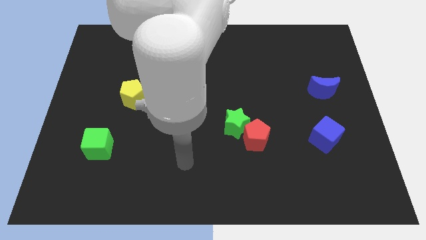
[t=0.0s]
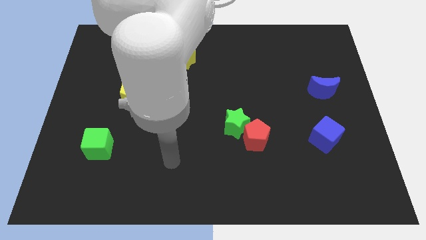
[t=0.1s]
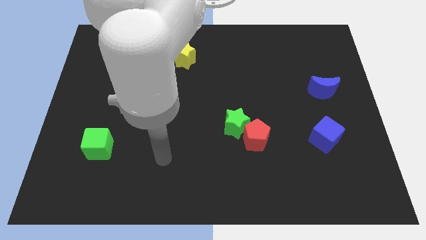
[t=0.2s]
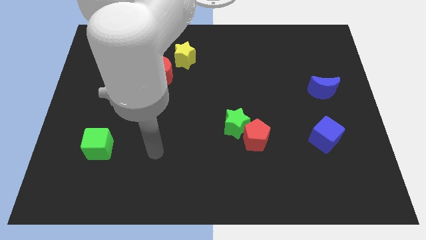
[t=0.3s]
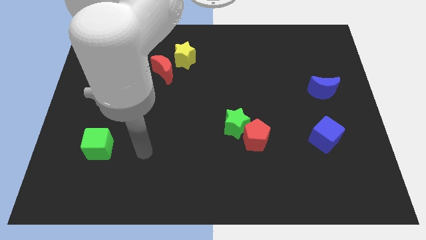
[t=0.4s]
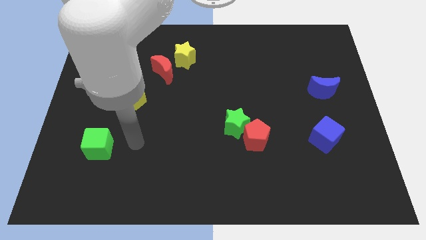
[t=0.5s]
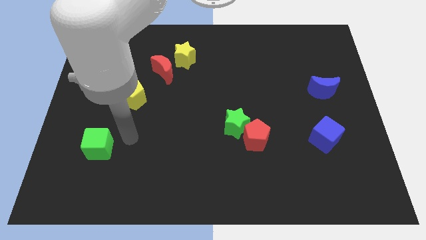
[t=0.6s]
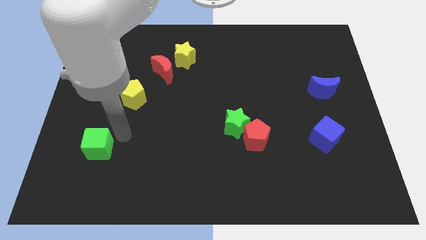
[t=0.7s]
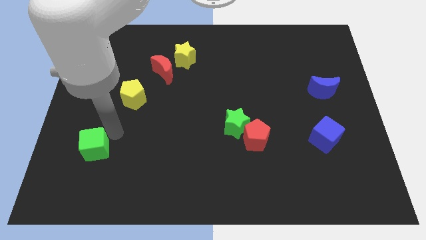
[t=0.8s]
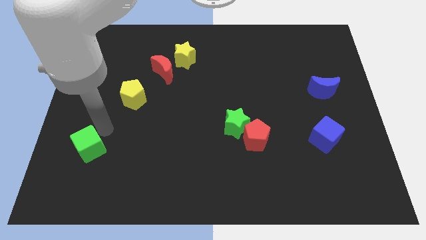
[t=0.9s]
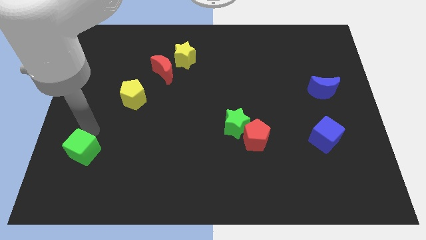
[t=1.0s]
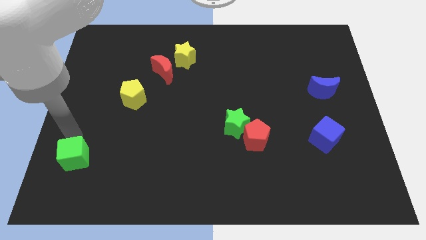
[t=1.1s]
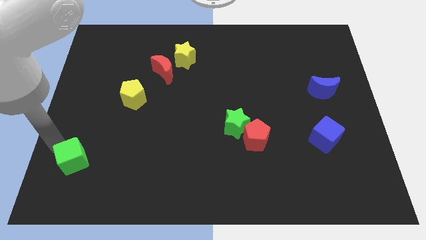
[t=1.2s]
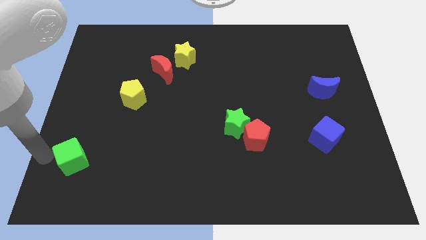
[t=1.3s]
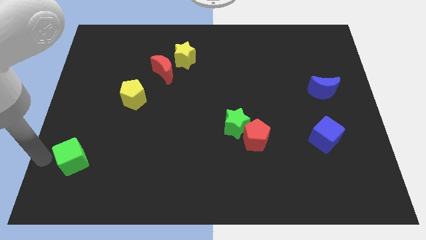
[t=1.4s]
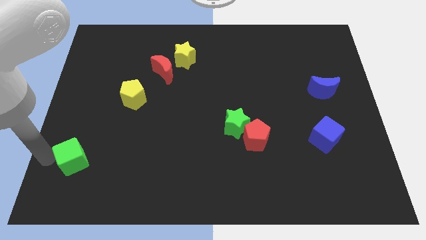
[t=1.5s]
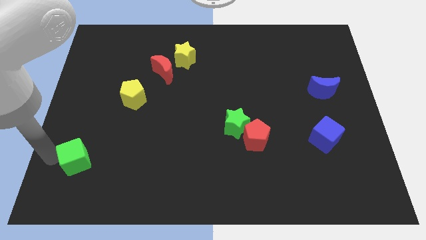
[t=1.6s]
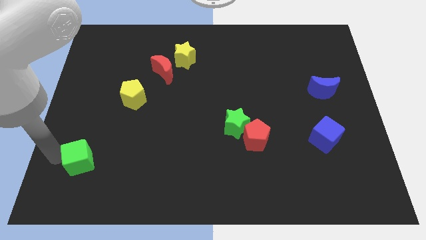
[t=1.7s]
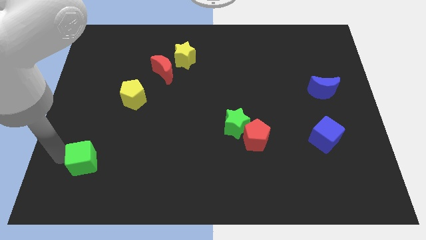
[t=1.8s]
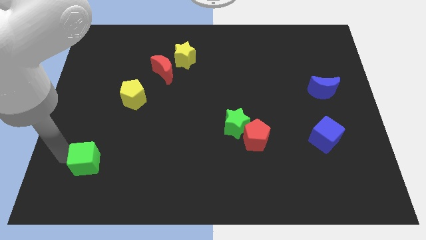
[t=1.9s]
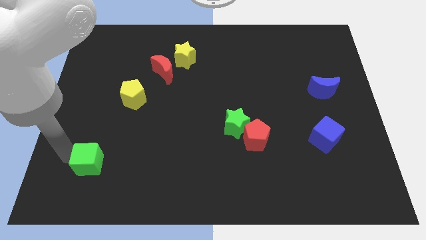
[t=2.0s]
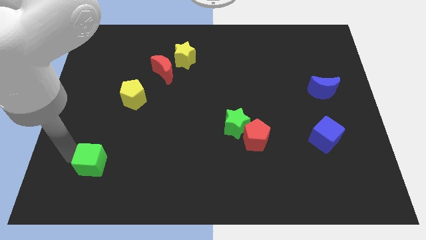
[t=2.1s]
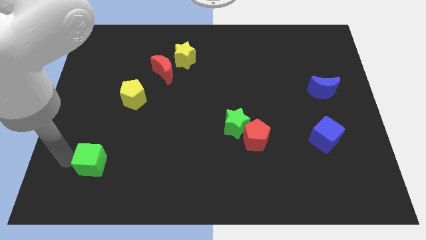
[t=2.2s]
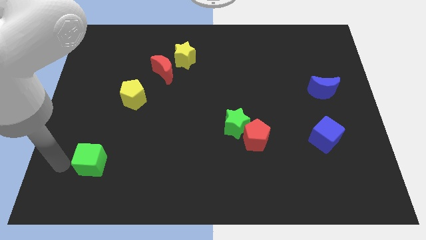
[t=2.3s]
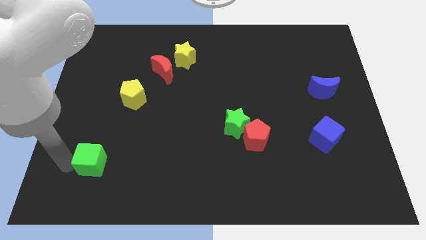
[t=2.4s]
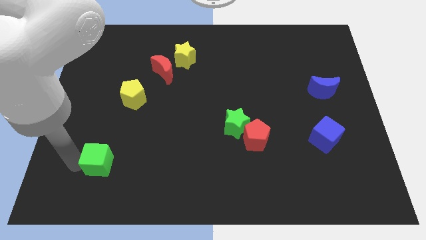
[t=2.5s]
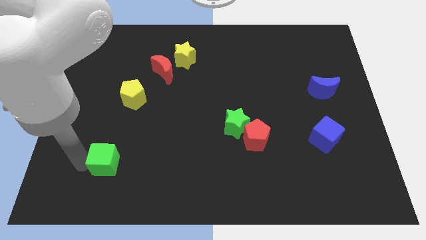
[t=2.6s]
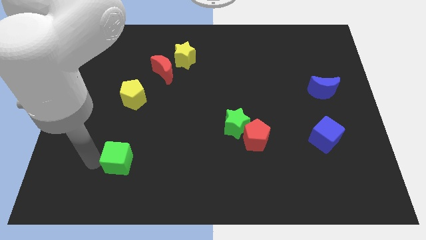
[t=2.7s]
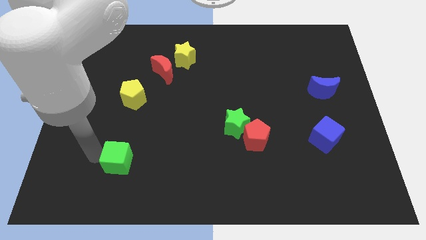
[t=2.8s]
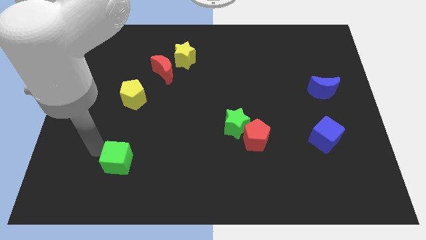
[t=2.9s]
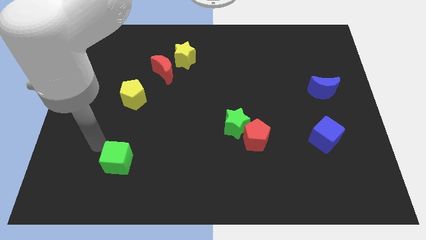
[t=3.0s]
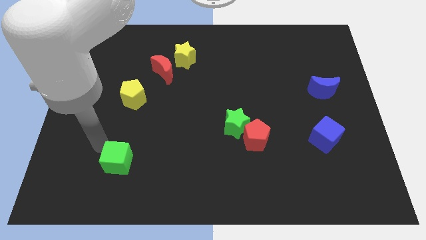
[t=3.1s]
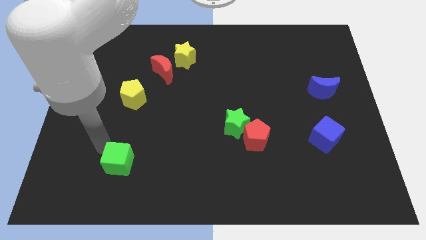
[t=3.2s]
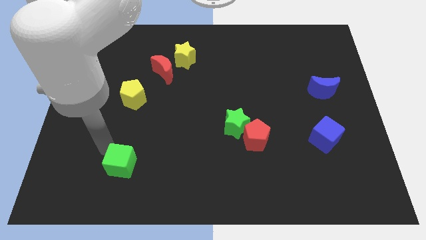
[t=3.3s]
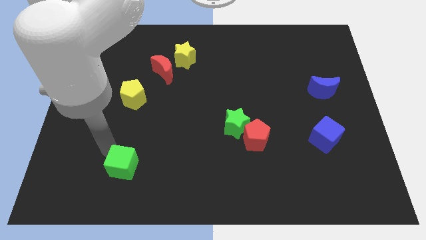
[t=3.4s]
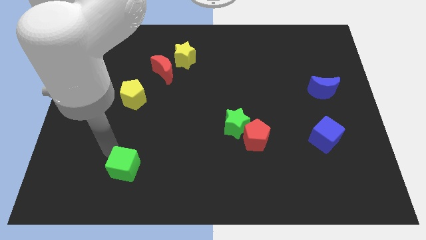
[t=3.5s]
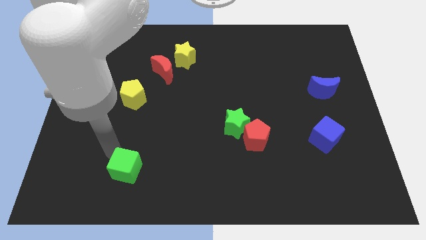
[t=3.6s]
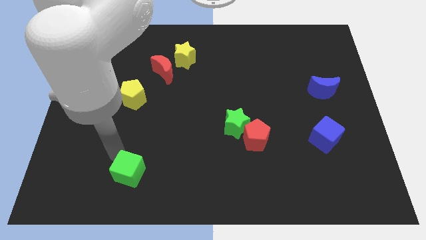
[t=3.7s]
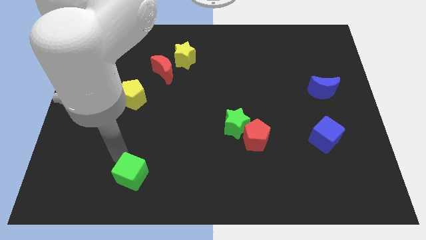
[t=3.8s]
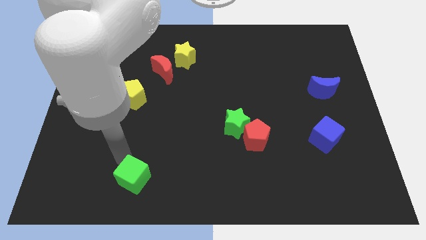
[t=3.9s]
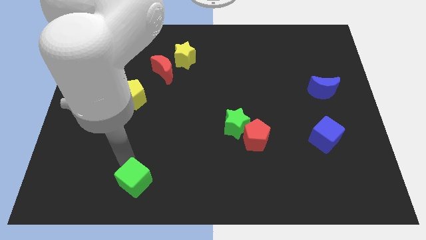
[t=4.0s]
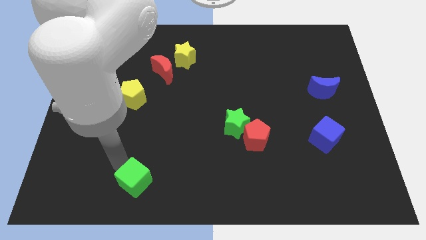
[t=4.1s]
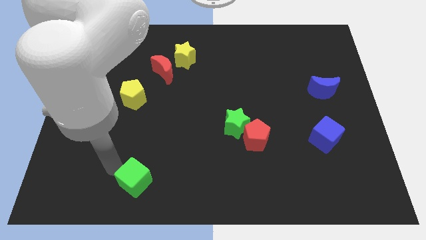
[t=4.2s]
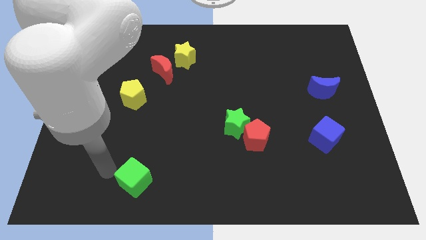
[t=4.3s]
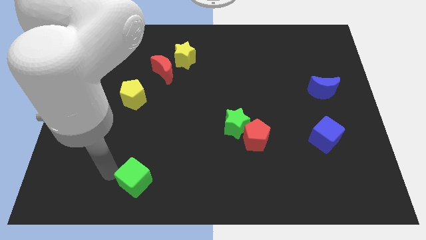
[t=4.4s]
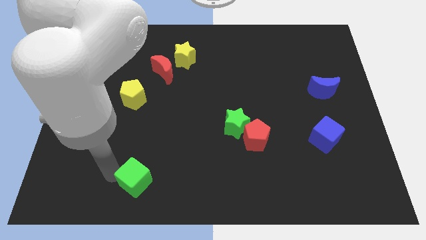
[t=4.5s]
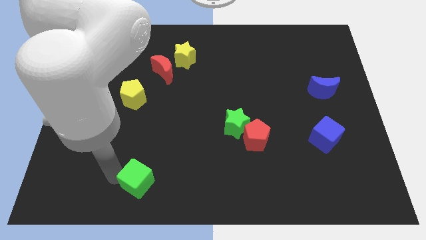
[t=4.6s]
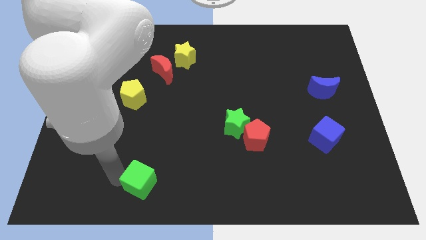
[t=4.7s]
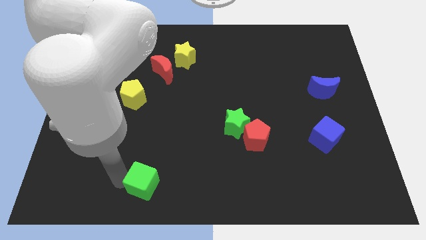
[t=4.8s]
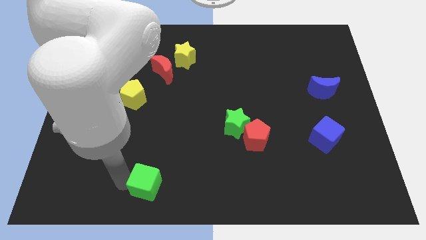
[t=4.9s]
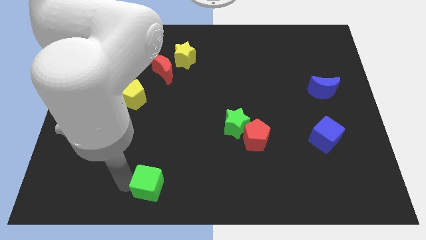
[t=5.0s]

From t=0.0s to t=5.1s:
push the green cube to the bottom

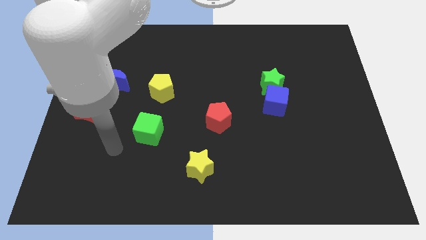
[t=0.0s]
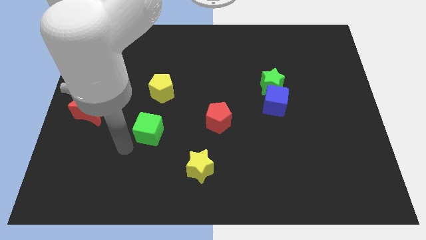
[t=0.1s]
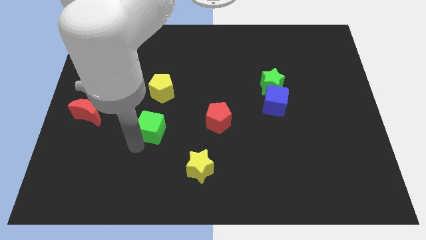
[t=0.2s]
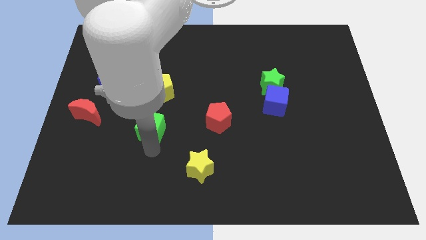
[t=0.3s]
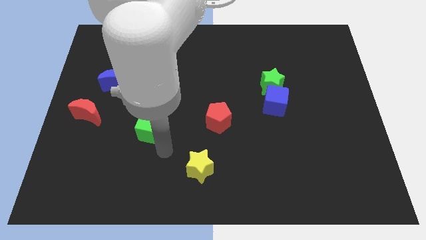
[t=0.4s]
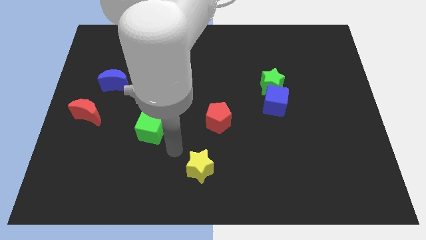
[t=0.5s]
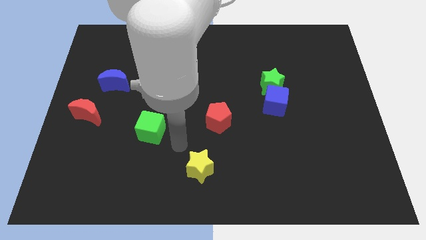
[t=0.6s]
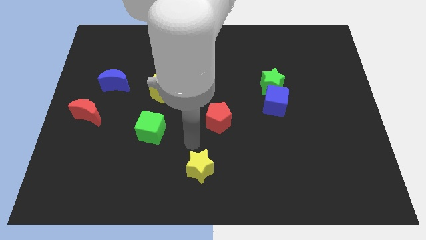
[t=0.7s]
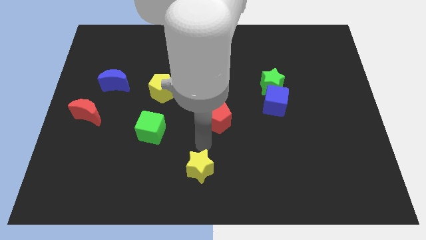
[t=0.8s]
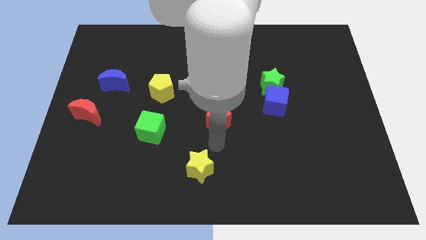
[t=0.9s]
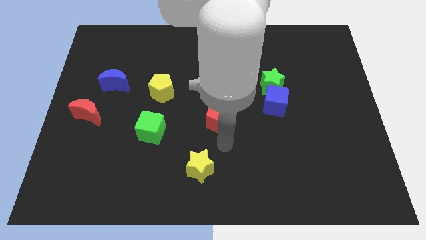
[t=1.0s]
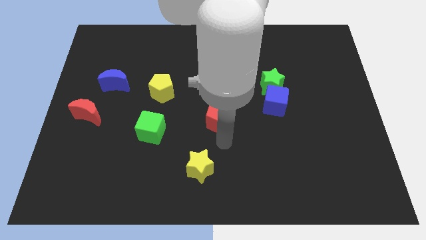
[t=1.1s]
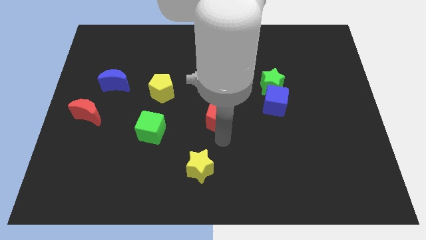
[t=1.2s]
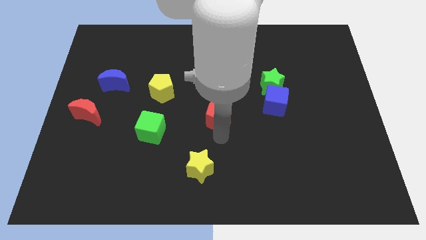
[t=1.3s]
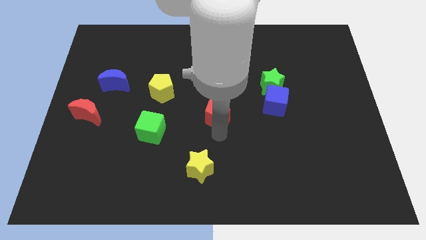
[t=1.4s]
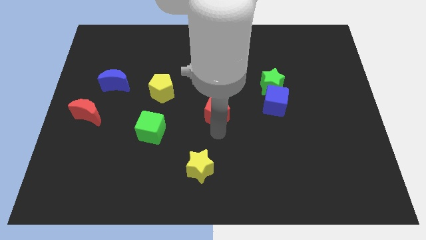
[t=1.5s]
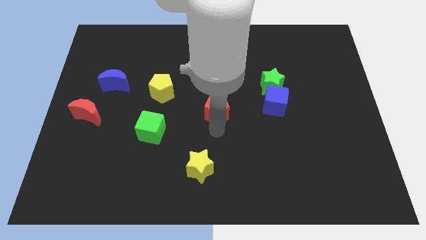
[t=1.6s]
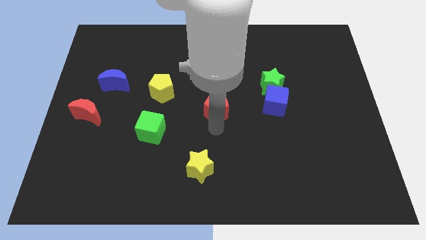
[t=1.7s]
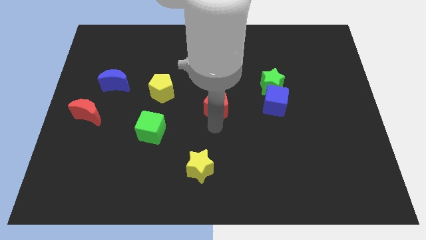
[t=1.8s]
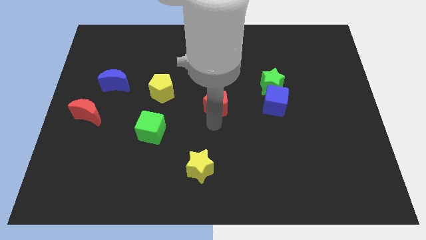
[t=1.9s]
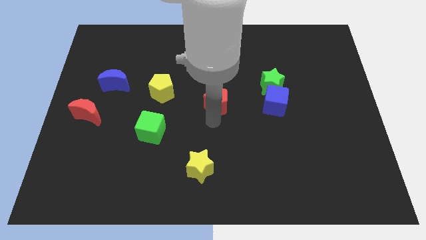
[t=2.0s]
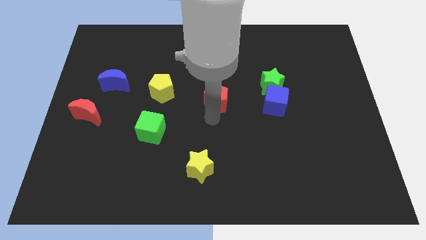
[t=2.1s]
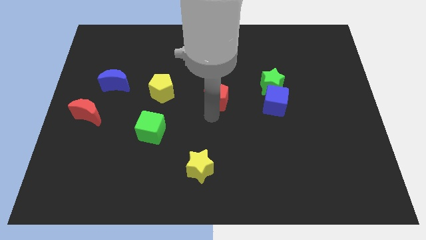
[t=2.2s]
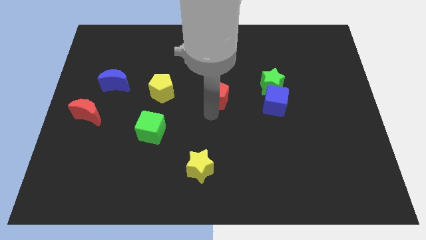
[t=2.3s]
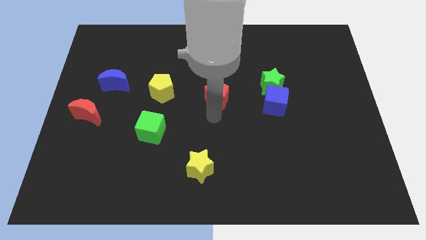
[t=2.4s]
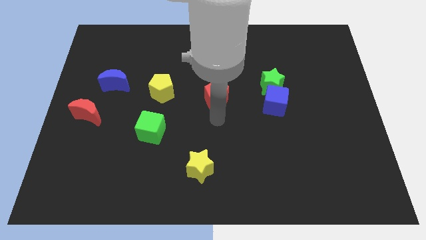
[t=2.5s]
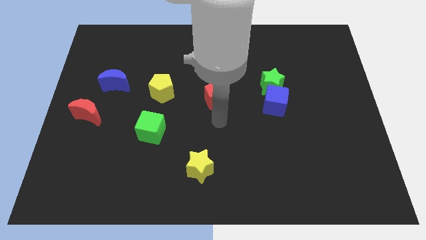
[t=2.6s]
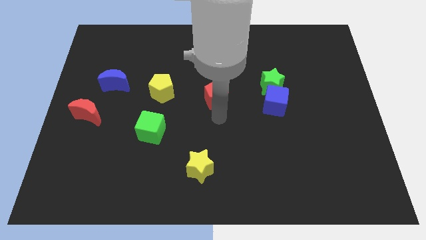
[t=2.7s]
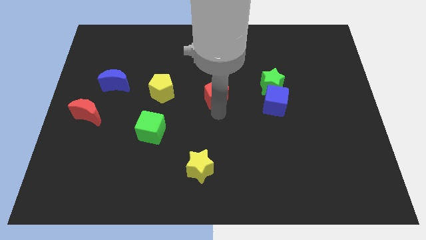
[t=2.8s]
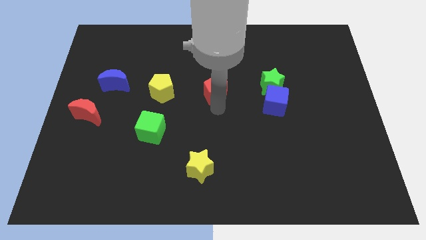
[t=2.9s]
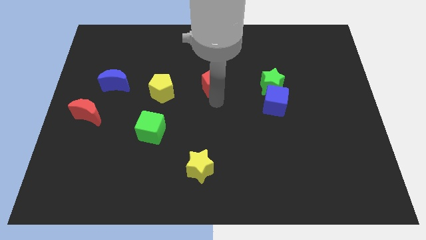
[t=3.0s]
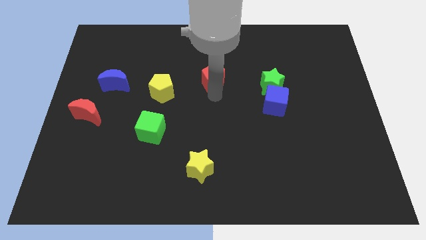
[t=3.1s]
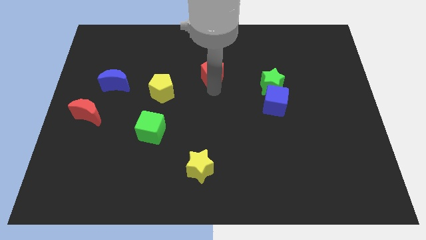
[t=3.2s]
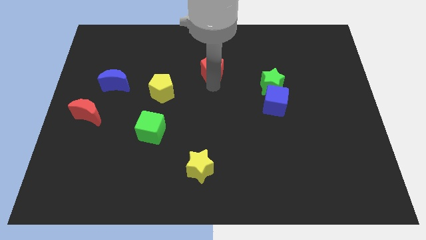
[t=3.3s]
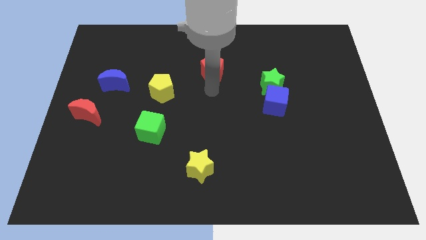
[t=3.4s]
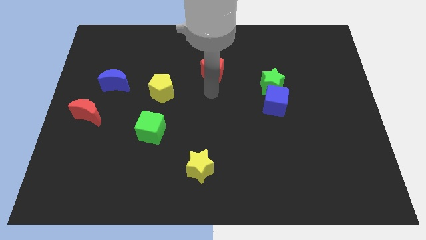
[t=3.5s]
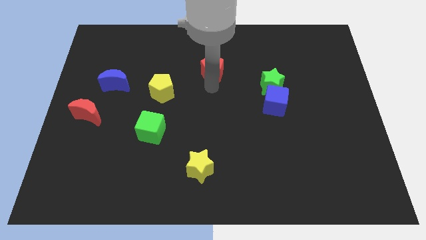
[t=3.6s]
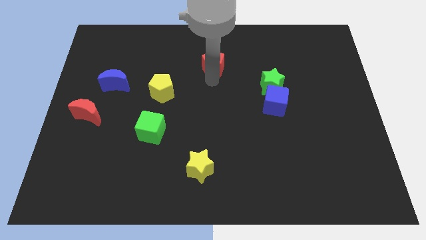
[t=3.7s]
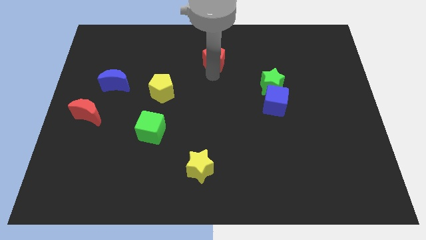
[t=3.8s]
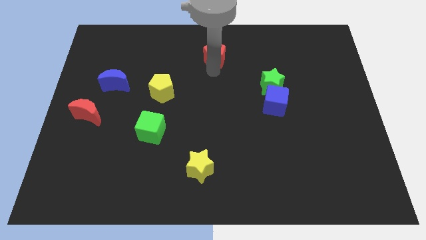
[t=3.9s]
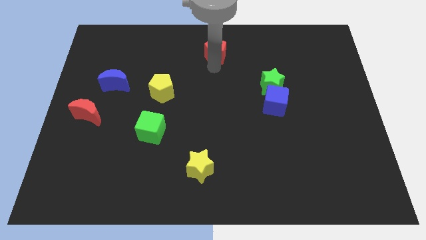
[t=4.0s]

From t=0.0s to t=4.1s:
move the red pentagon to the top side
